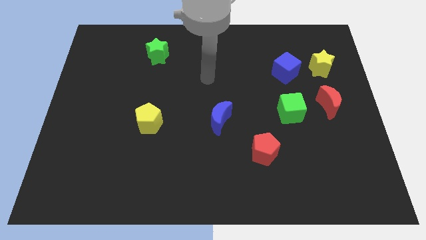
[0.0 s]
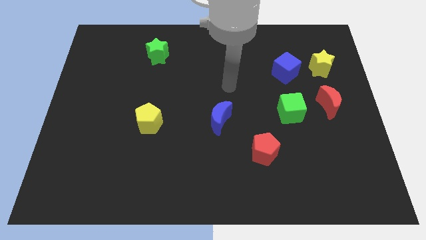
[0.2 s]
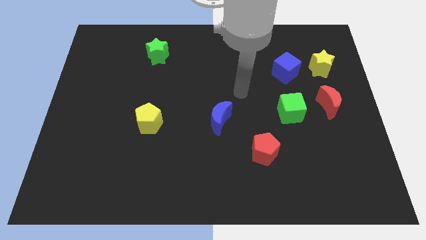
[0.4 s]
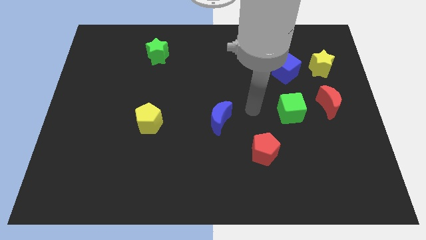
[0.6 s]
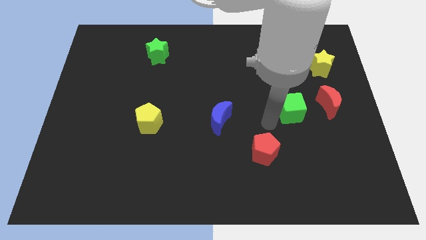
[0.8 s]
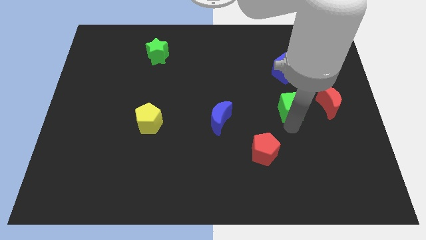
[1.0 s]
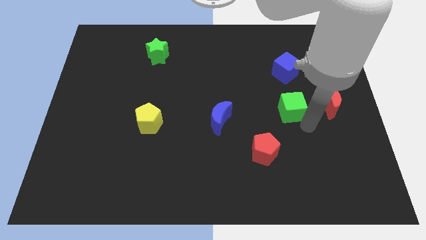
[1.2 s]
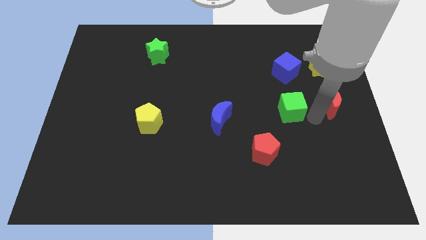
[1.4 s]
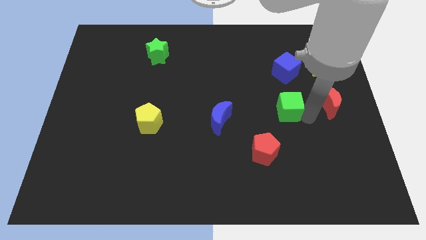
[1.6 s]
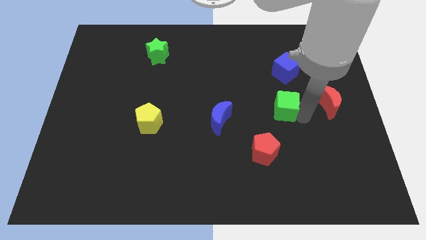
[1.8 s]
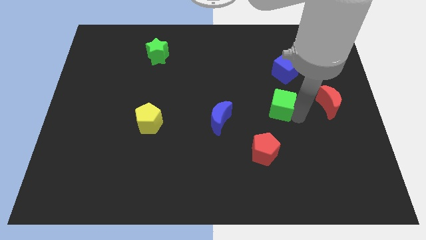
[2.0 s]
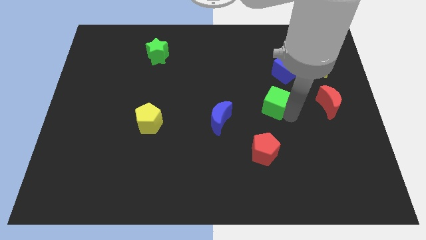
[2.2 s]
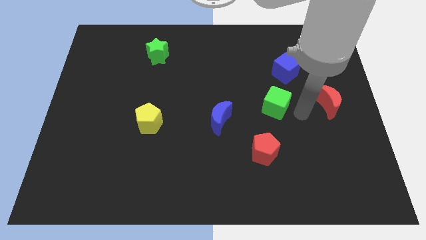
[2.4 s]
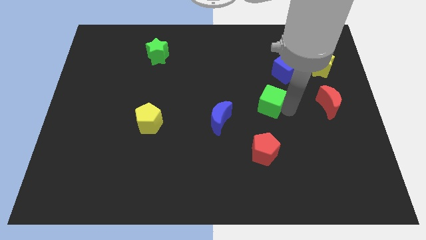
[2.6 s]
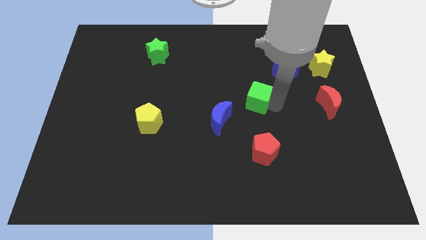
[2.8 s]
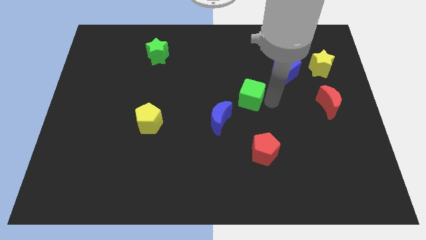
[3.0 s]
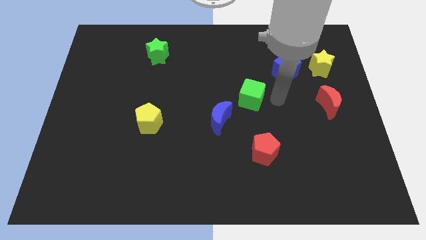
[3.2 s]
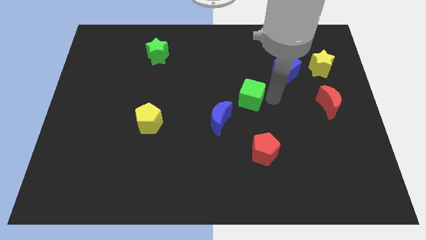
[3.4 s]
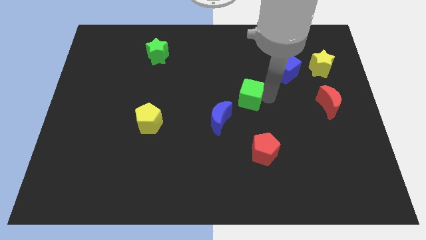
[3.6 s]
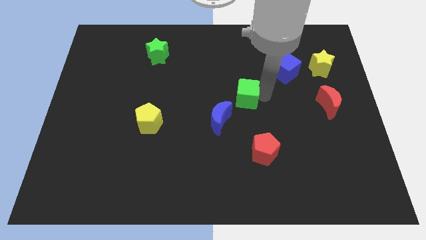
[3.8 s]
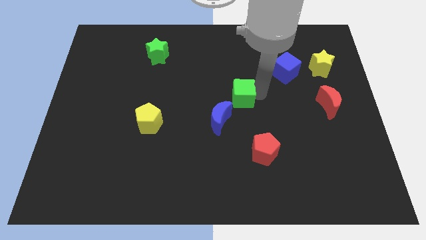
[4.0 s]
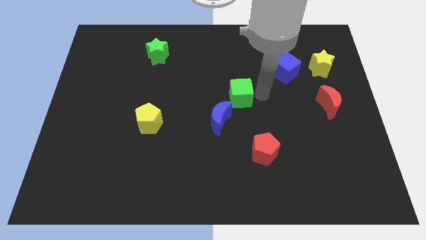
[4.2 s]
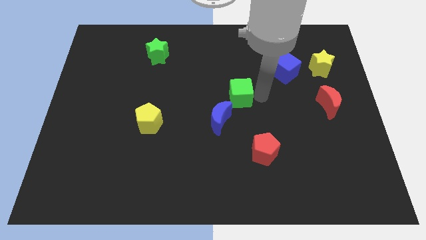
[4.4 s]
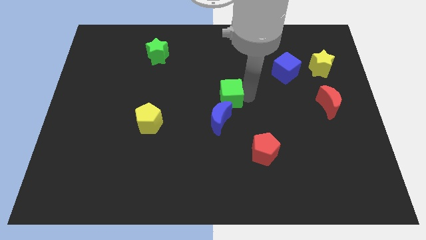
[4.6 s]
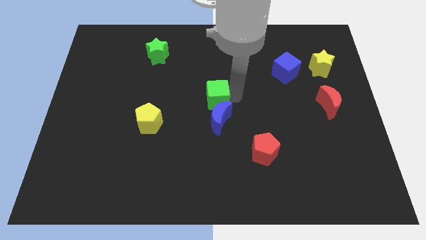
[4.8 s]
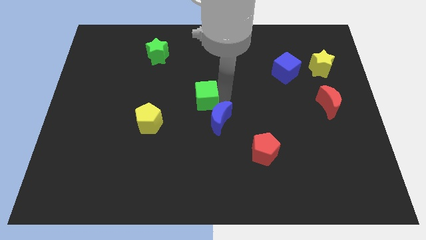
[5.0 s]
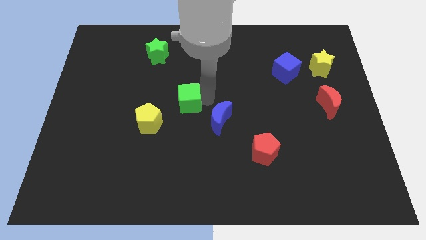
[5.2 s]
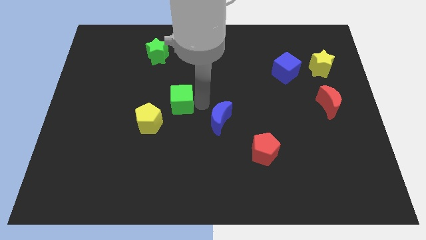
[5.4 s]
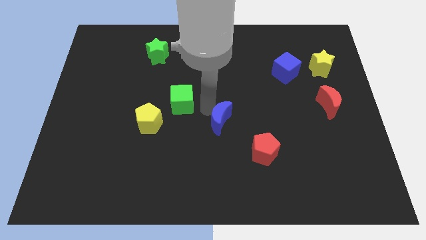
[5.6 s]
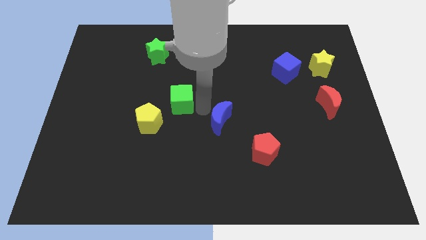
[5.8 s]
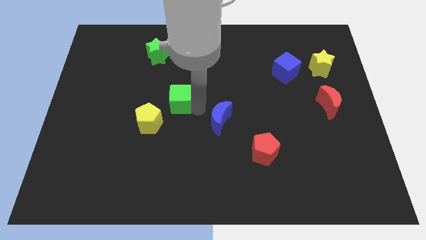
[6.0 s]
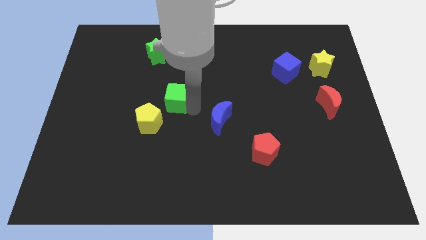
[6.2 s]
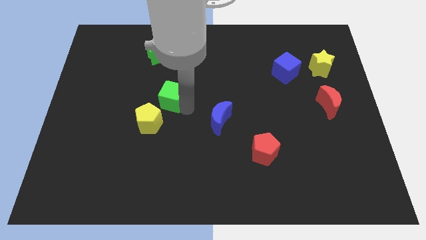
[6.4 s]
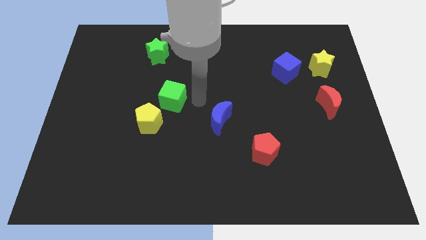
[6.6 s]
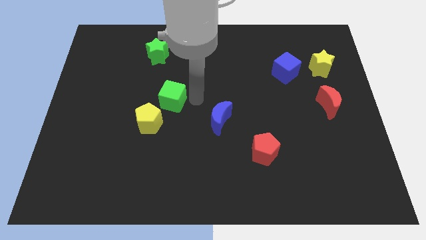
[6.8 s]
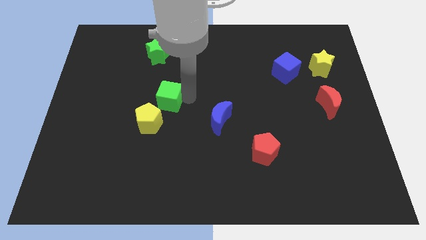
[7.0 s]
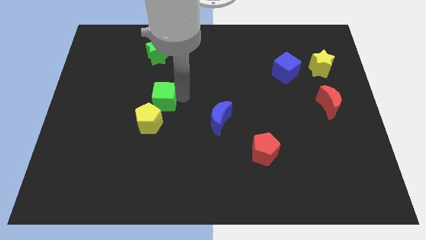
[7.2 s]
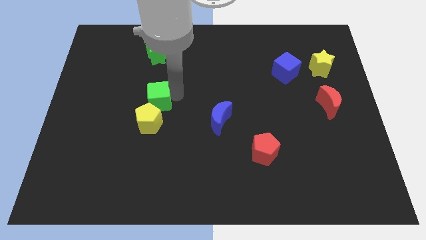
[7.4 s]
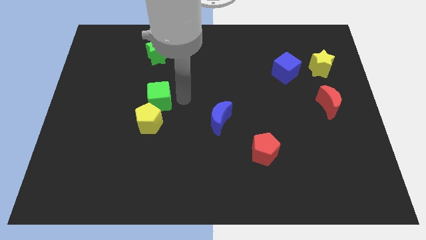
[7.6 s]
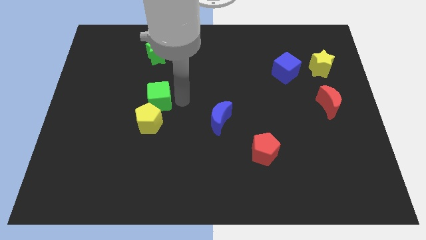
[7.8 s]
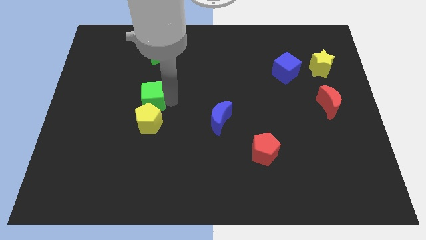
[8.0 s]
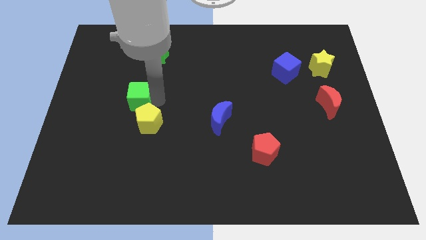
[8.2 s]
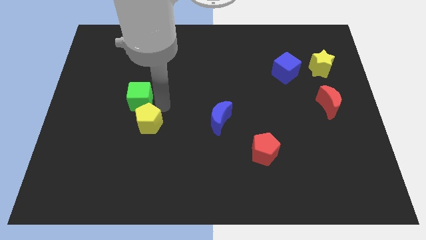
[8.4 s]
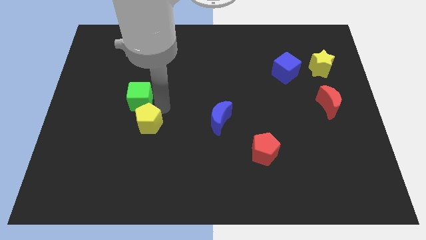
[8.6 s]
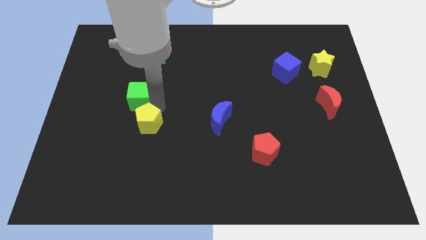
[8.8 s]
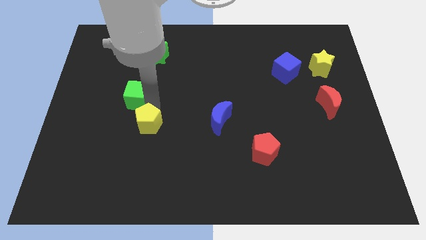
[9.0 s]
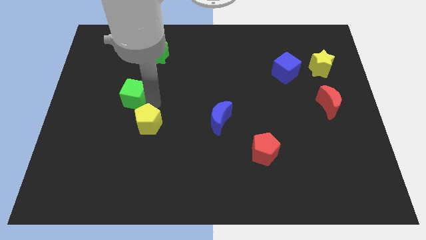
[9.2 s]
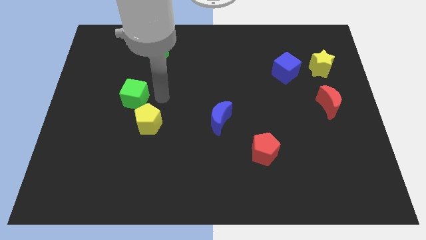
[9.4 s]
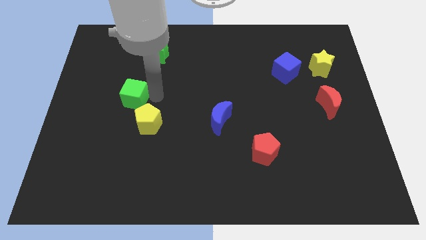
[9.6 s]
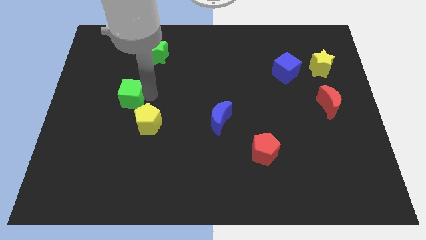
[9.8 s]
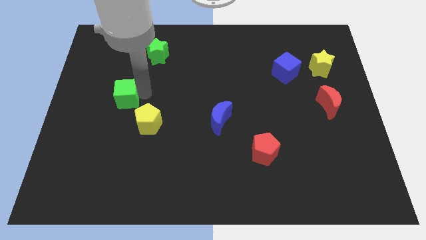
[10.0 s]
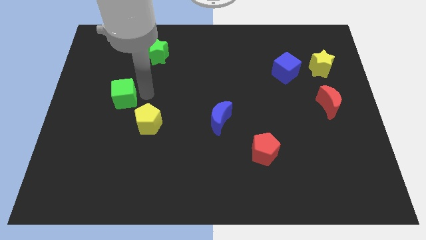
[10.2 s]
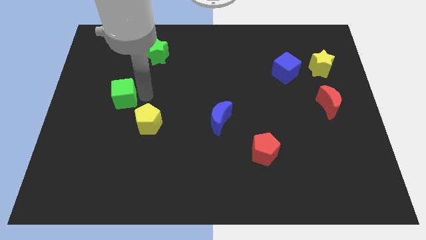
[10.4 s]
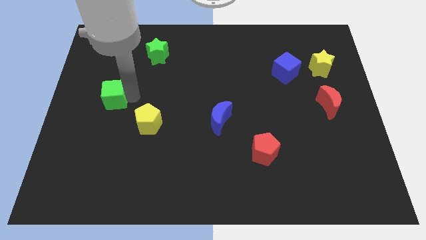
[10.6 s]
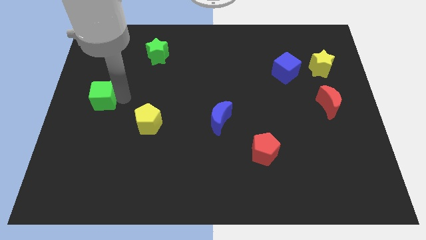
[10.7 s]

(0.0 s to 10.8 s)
put the green cube to the left side of the board
